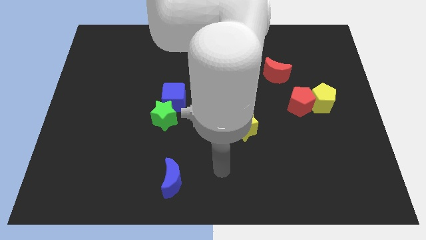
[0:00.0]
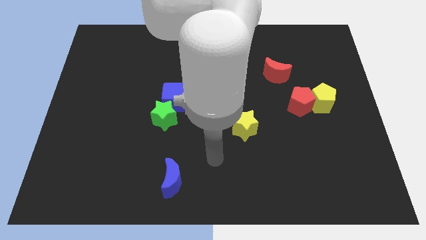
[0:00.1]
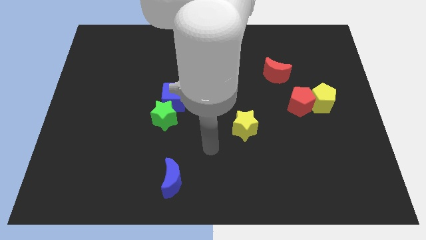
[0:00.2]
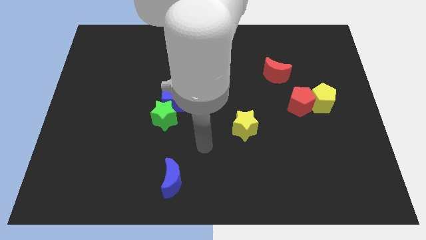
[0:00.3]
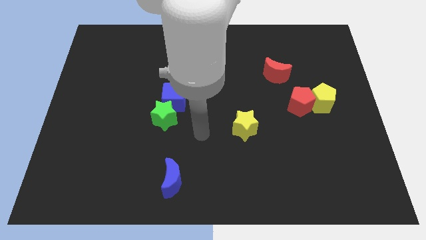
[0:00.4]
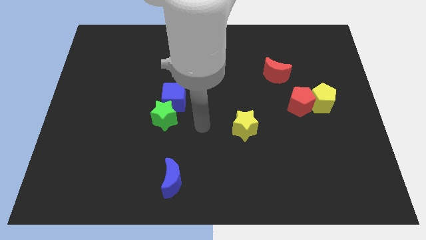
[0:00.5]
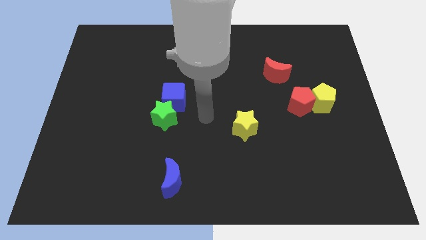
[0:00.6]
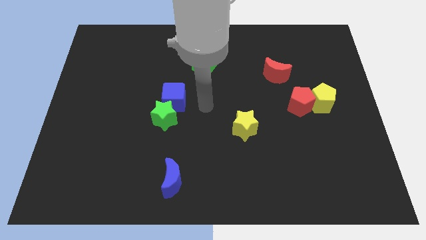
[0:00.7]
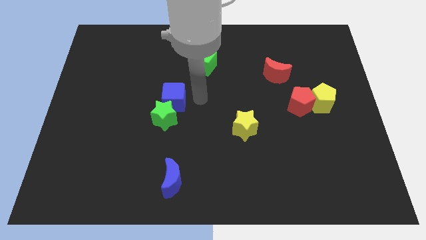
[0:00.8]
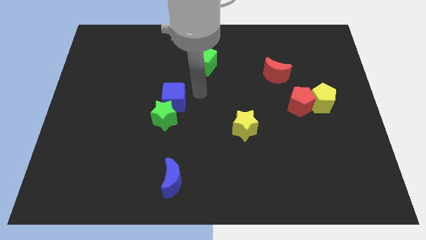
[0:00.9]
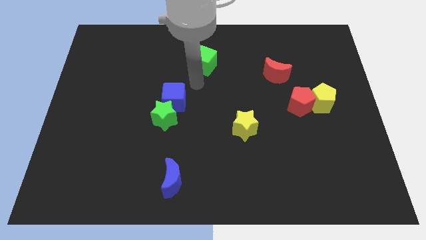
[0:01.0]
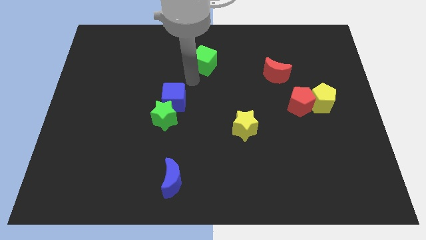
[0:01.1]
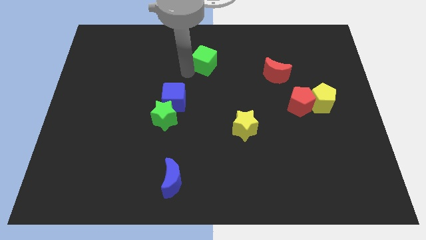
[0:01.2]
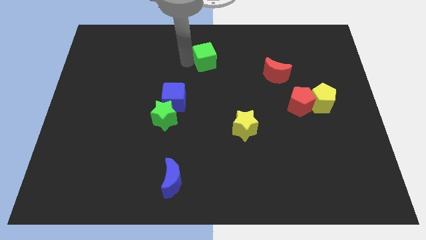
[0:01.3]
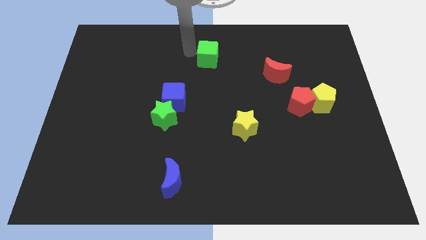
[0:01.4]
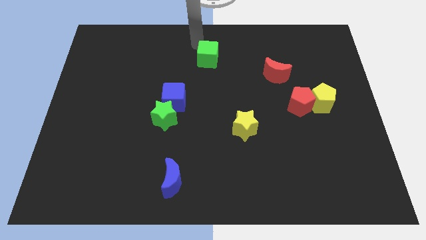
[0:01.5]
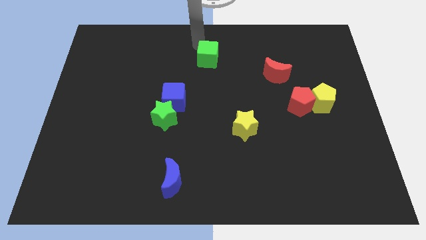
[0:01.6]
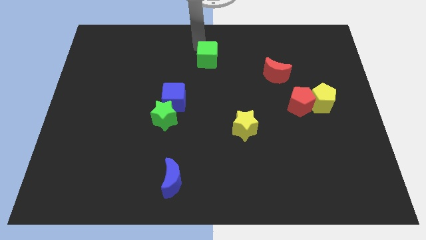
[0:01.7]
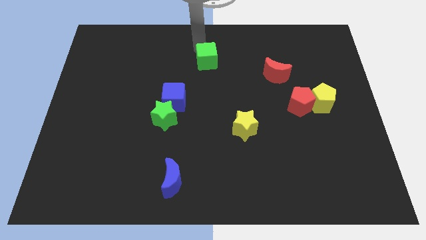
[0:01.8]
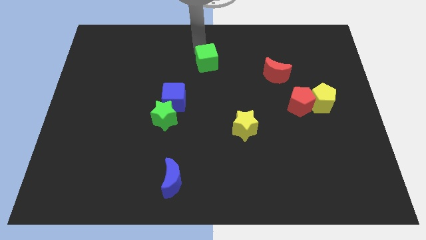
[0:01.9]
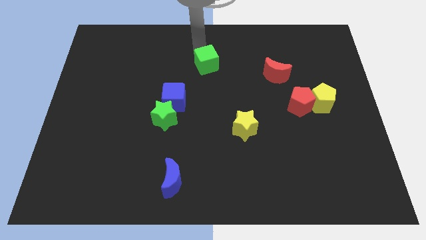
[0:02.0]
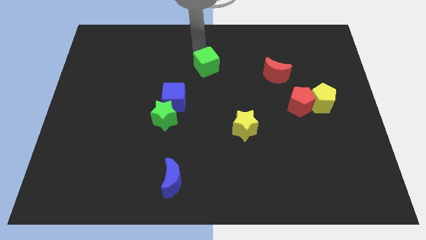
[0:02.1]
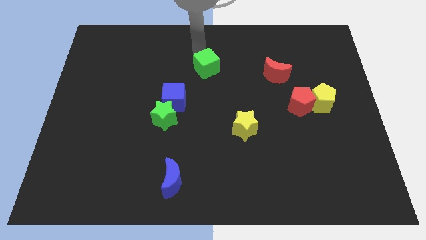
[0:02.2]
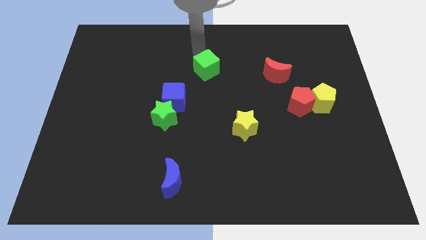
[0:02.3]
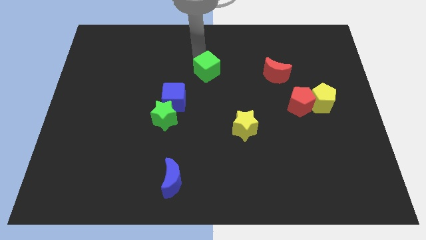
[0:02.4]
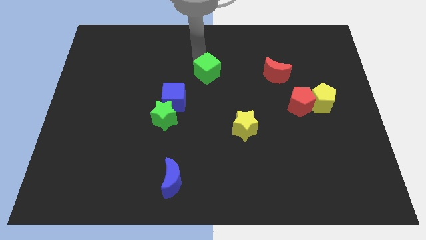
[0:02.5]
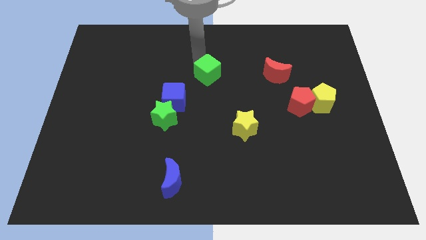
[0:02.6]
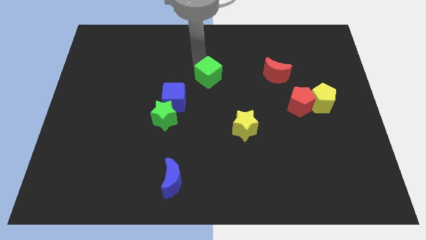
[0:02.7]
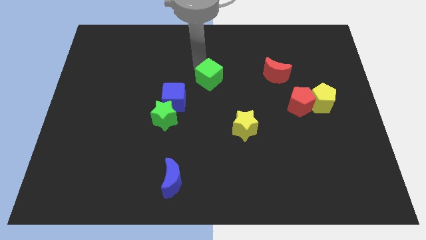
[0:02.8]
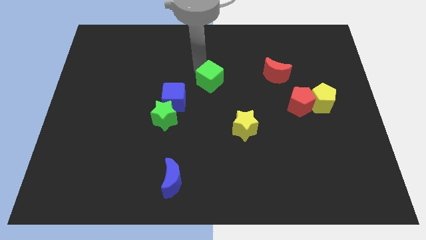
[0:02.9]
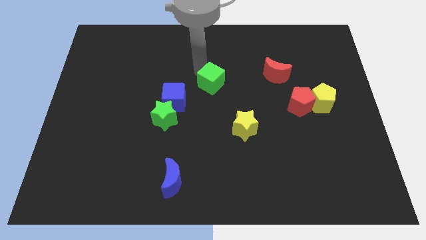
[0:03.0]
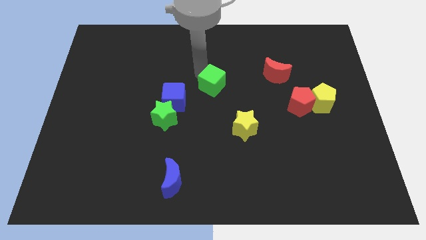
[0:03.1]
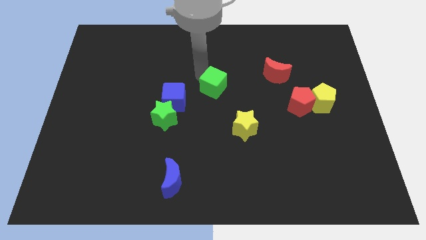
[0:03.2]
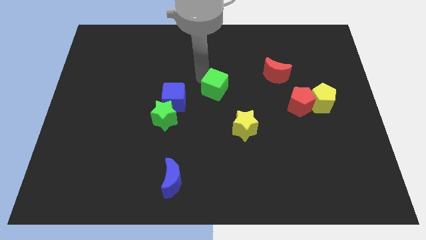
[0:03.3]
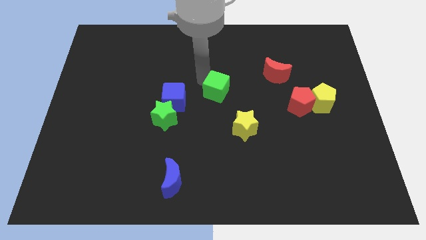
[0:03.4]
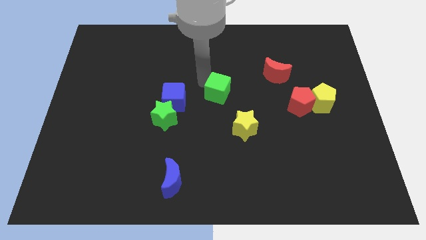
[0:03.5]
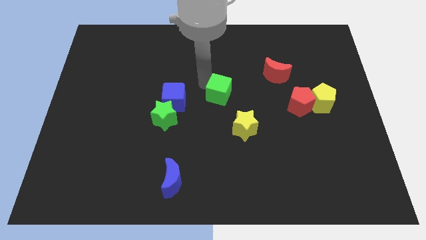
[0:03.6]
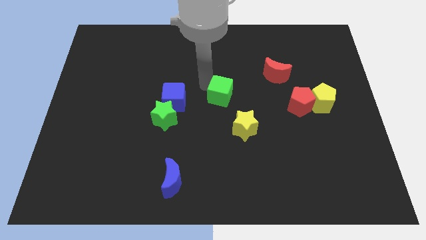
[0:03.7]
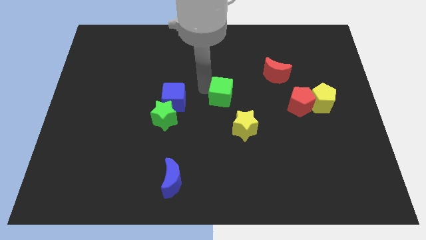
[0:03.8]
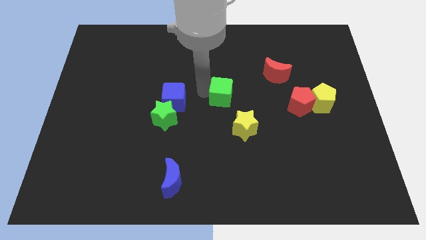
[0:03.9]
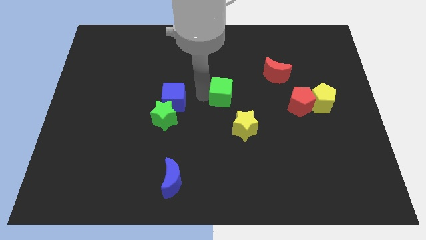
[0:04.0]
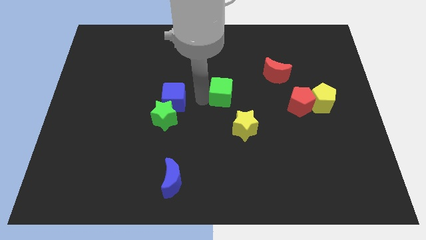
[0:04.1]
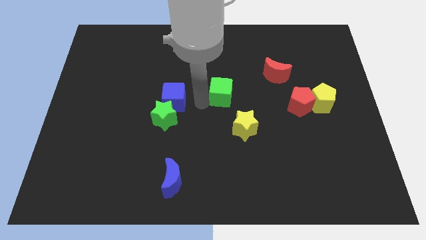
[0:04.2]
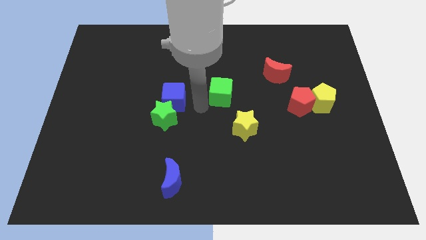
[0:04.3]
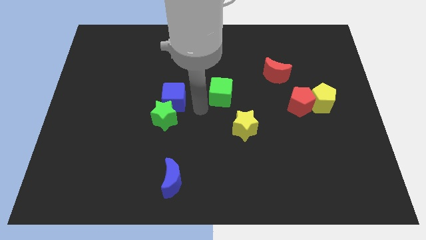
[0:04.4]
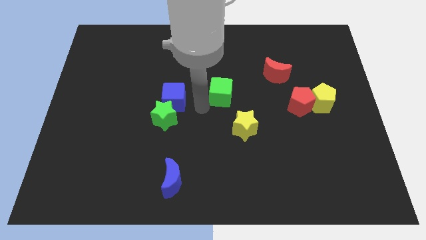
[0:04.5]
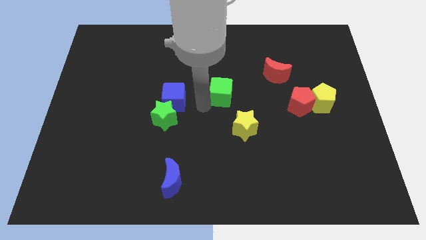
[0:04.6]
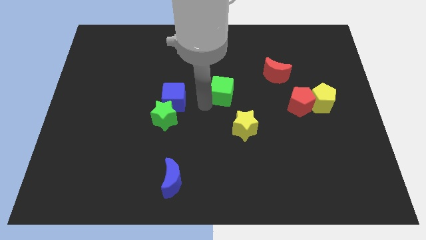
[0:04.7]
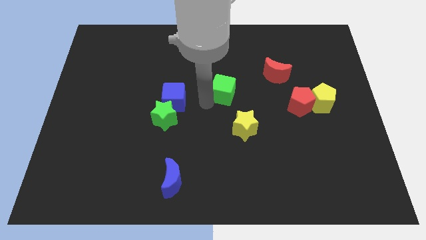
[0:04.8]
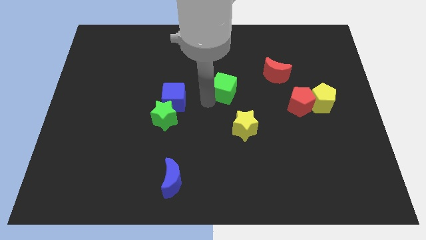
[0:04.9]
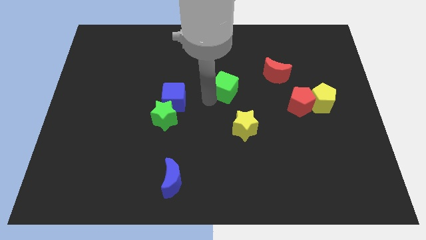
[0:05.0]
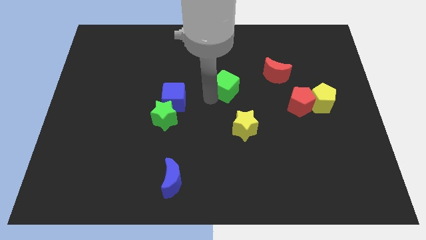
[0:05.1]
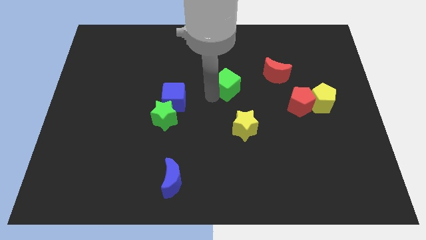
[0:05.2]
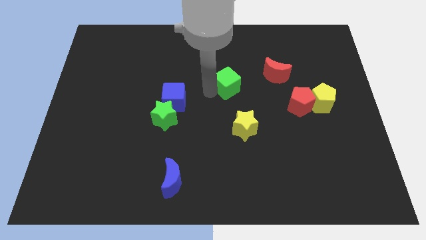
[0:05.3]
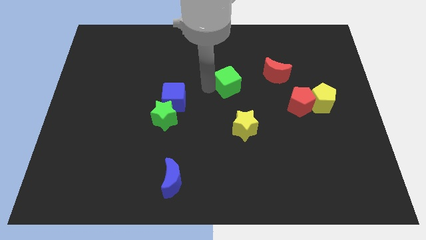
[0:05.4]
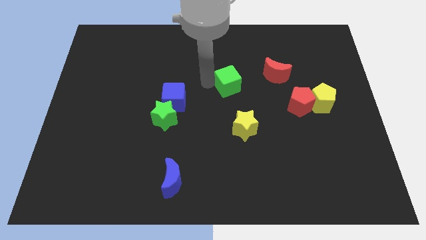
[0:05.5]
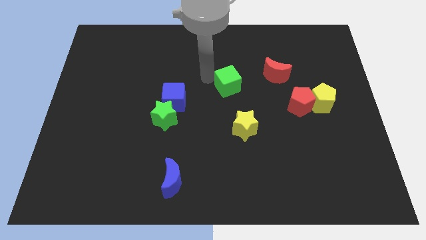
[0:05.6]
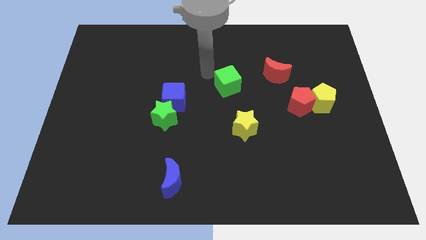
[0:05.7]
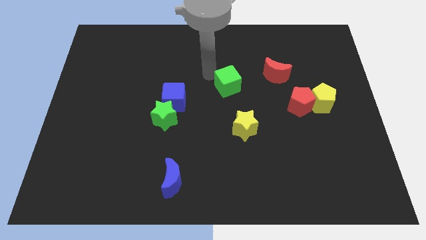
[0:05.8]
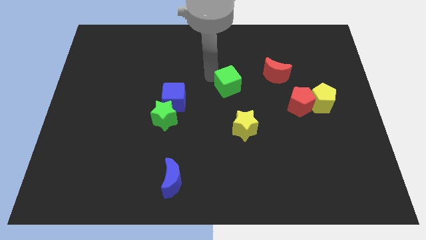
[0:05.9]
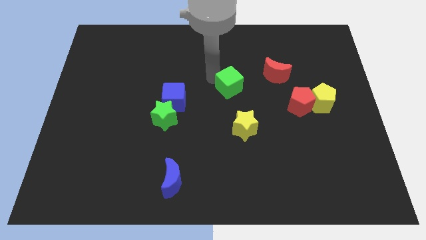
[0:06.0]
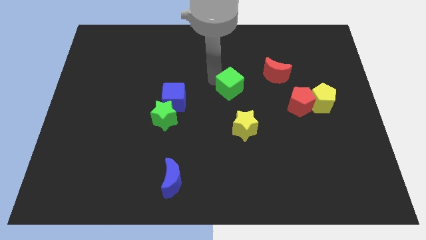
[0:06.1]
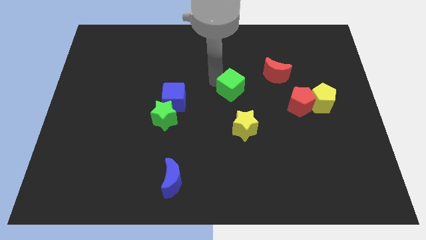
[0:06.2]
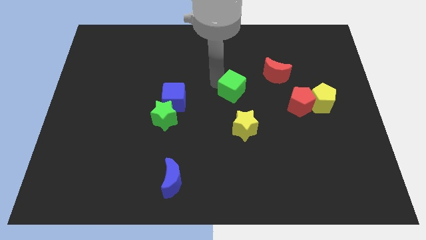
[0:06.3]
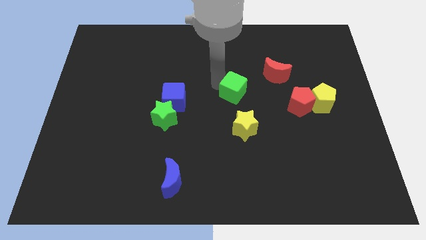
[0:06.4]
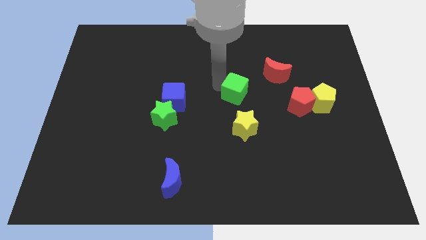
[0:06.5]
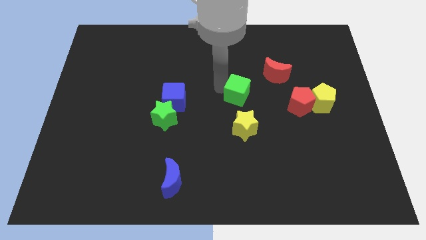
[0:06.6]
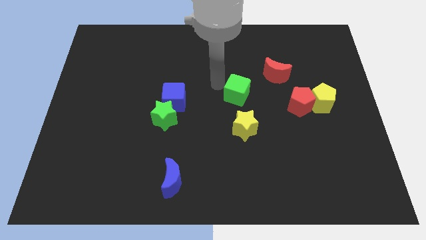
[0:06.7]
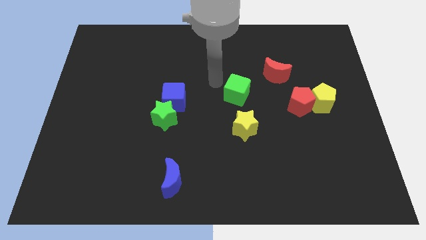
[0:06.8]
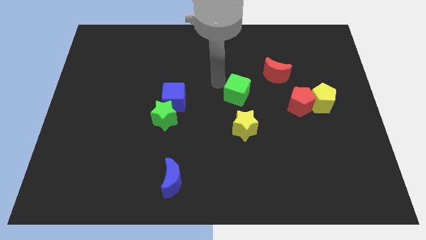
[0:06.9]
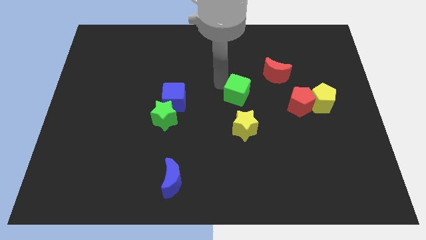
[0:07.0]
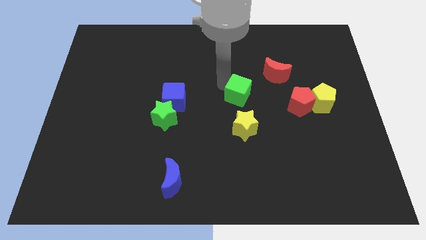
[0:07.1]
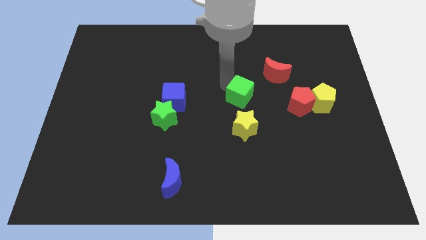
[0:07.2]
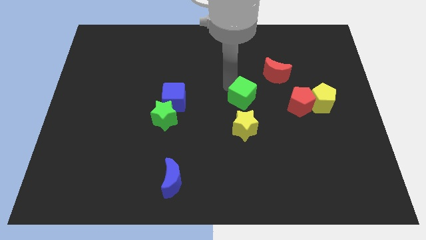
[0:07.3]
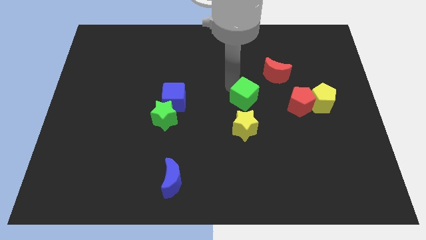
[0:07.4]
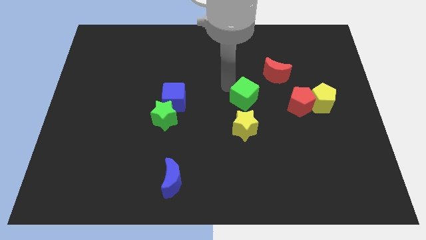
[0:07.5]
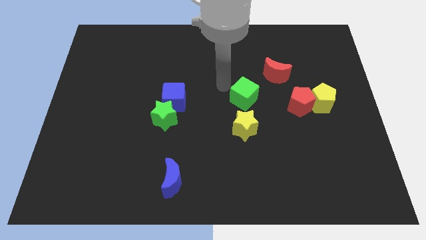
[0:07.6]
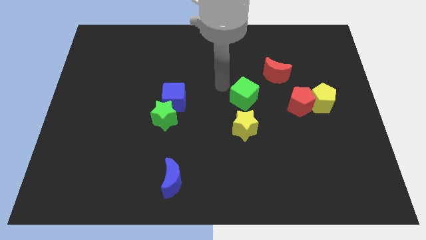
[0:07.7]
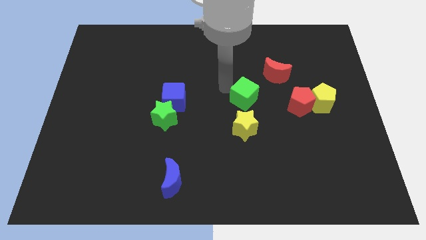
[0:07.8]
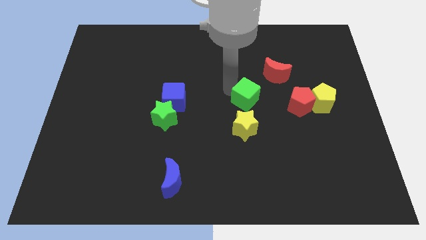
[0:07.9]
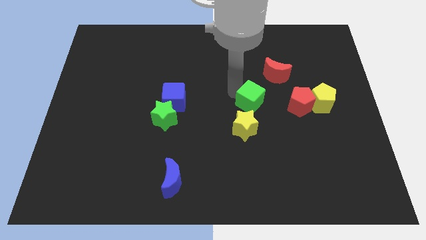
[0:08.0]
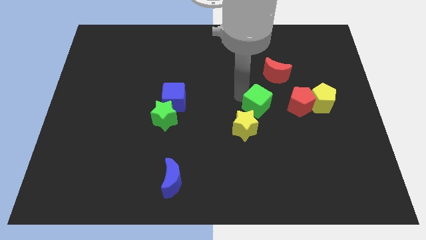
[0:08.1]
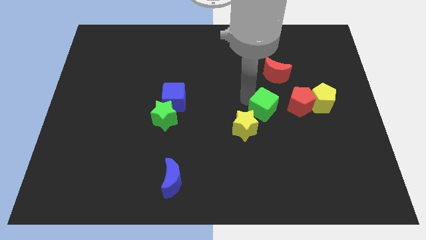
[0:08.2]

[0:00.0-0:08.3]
slide the green cube diagonally down and to the right
